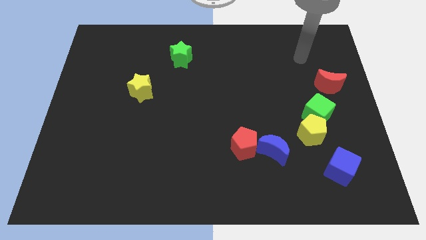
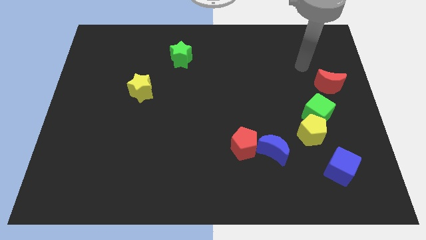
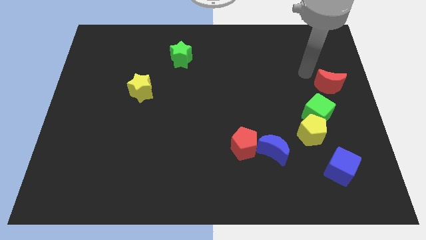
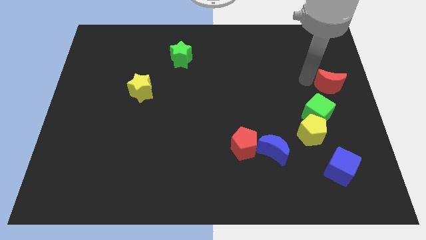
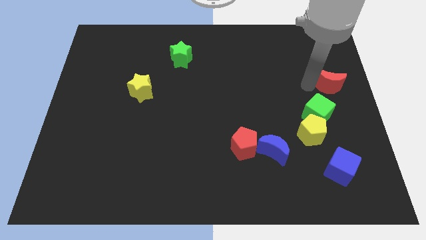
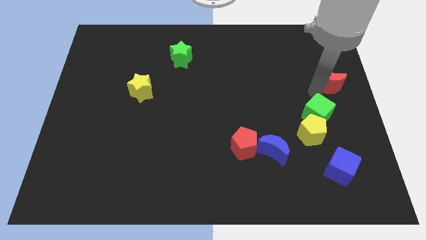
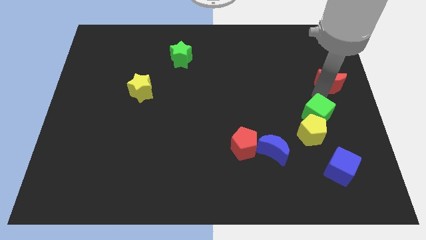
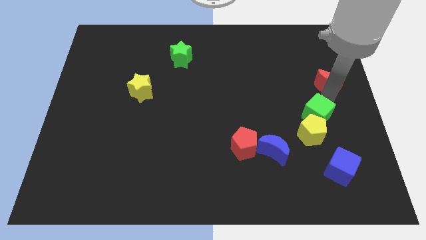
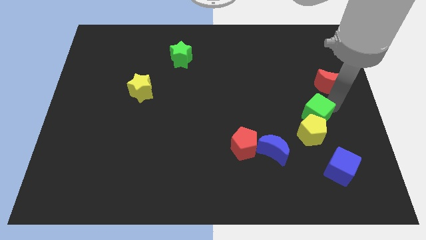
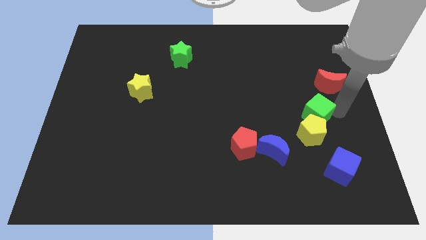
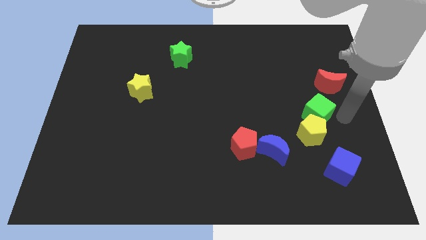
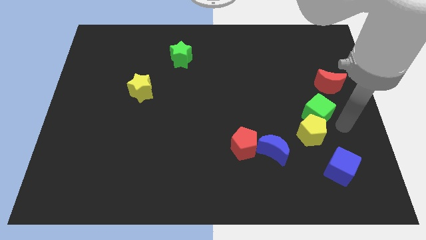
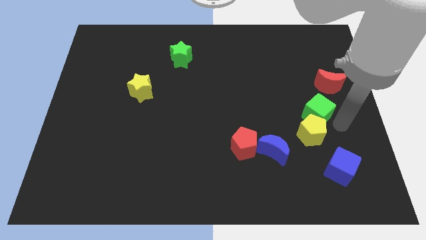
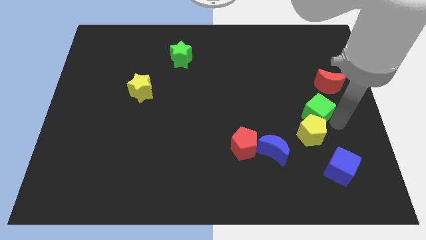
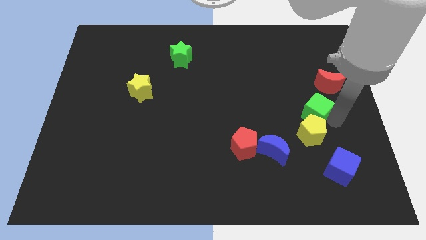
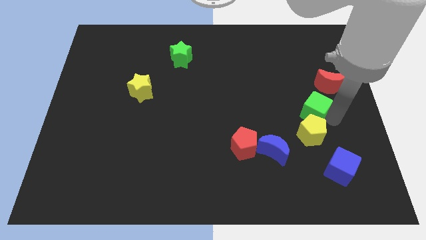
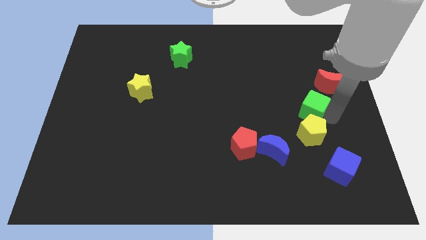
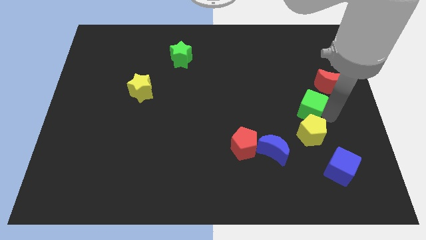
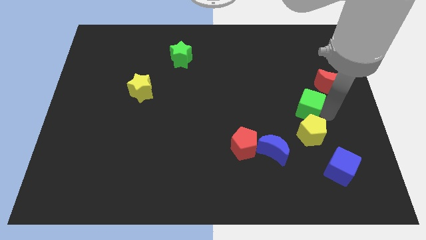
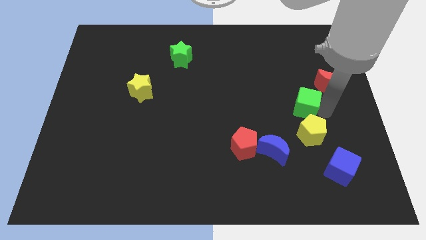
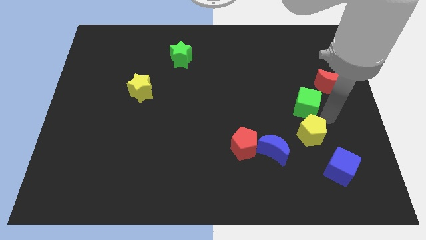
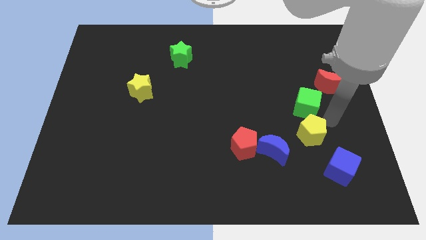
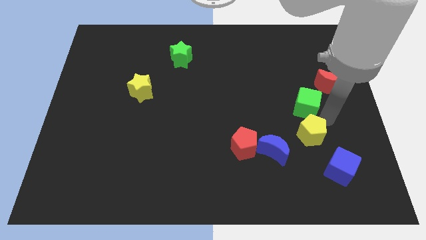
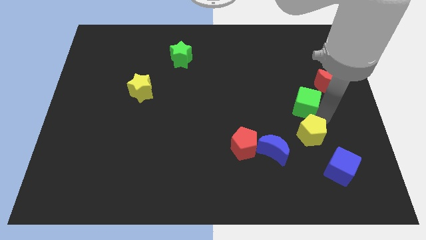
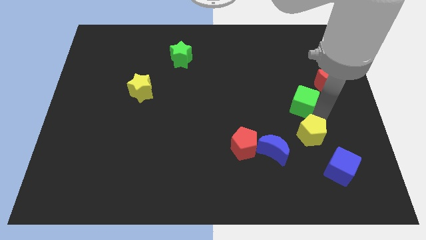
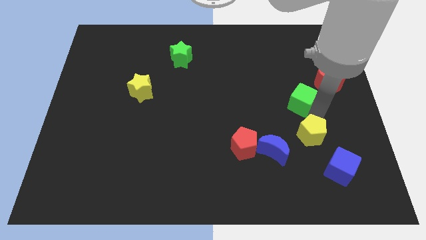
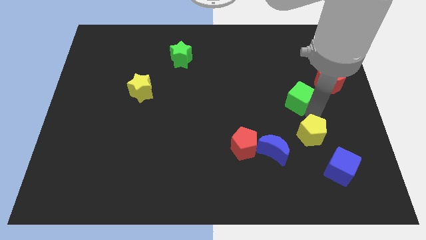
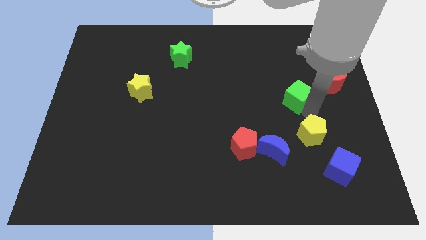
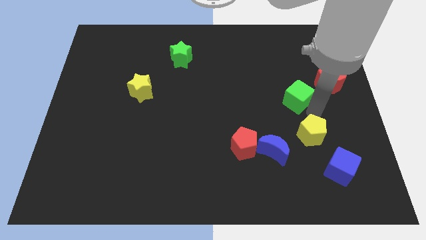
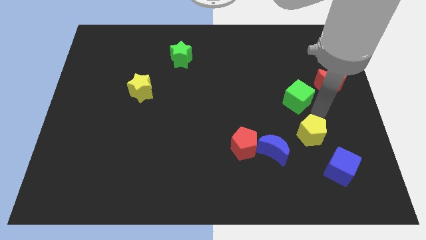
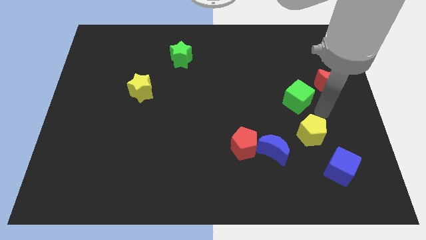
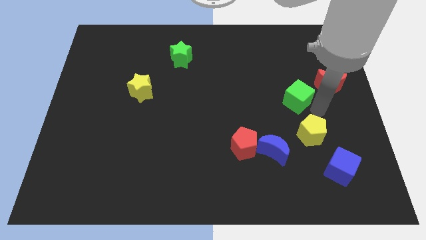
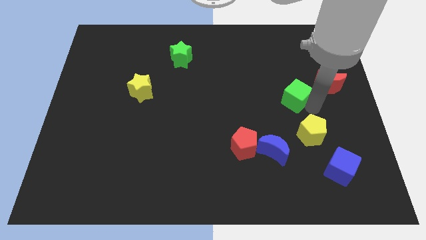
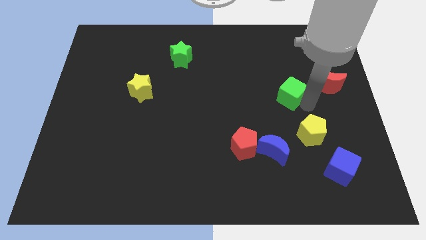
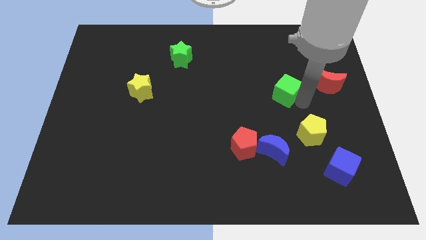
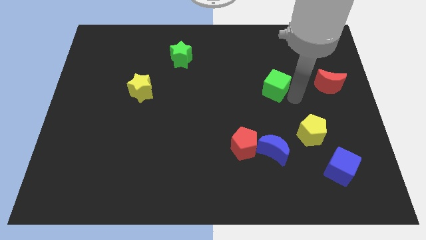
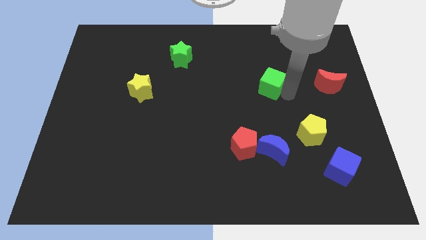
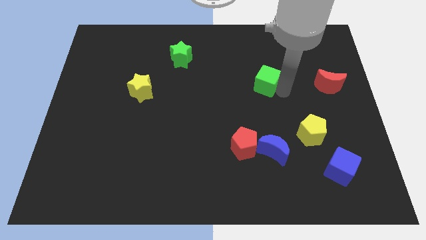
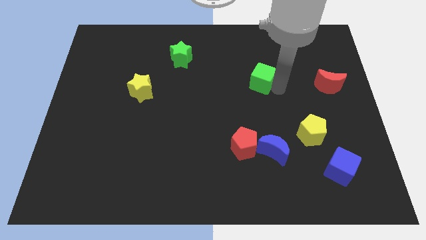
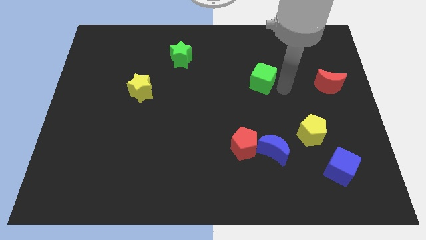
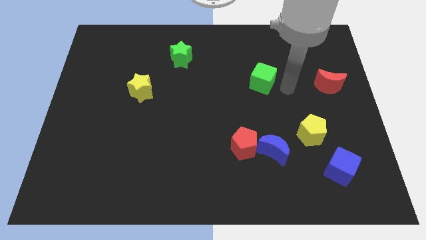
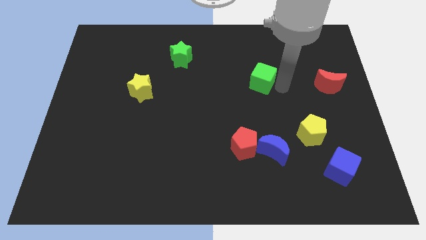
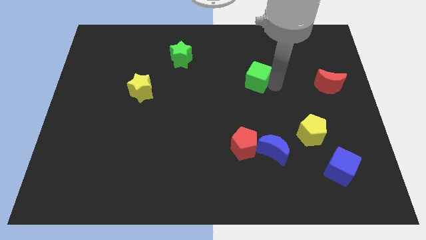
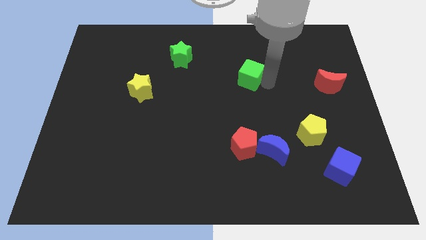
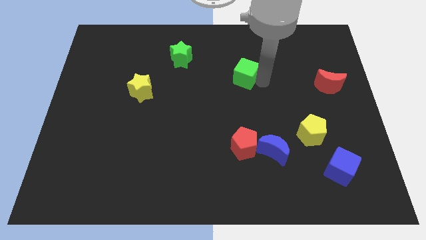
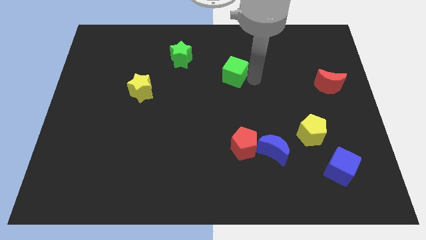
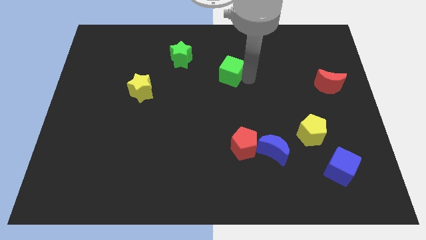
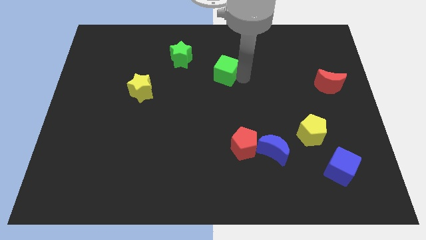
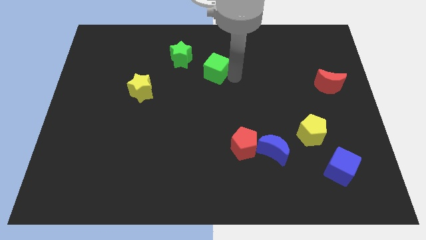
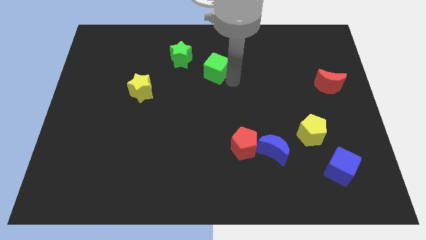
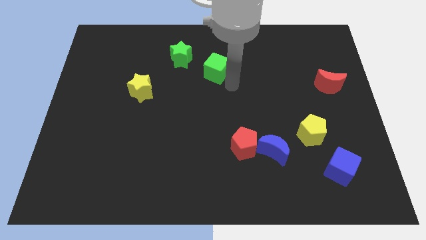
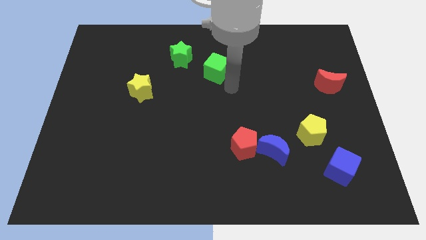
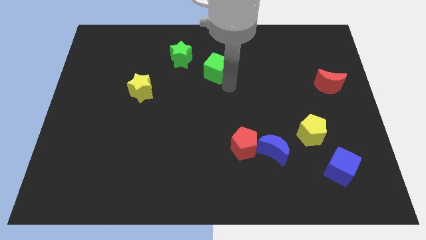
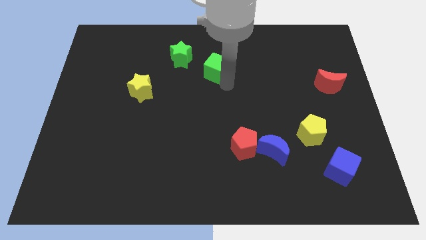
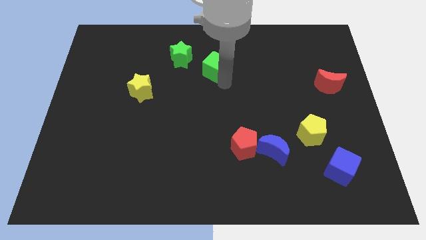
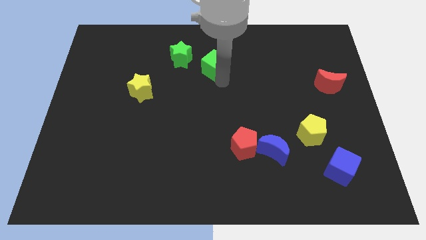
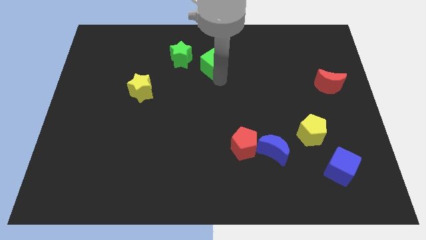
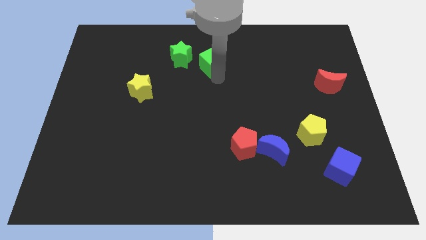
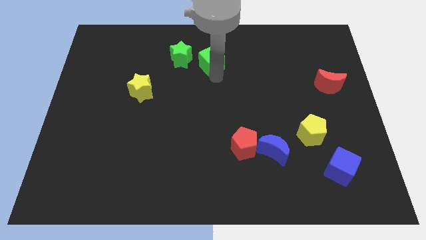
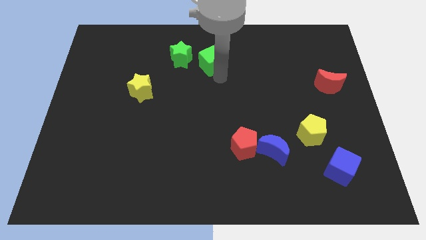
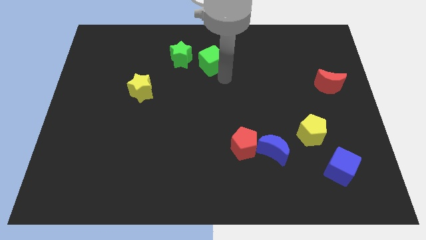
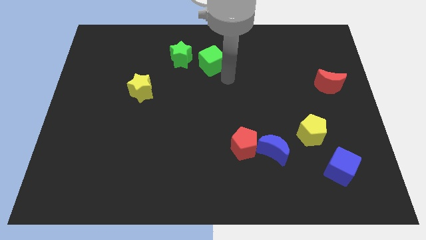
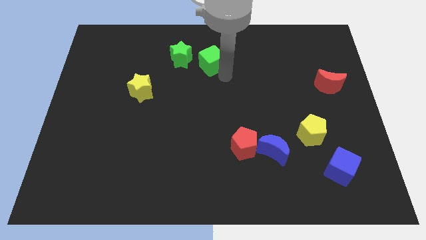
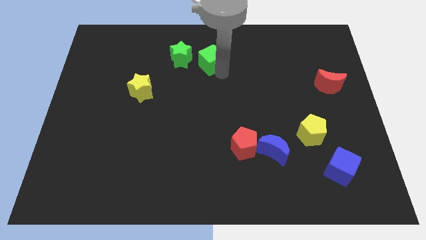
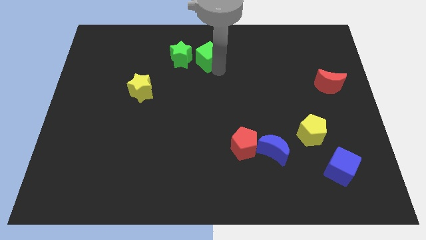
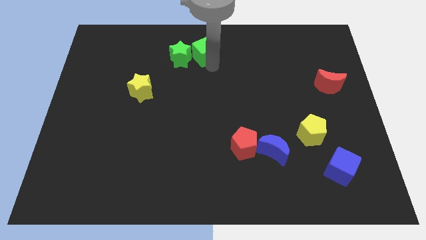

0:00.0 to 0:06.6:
slide the green cube to the towards your base

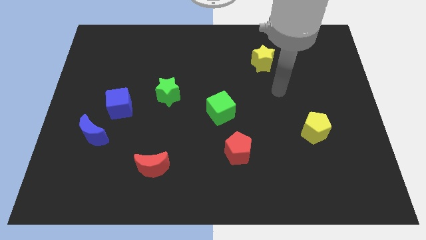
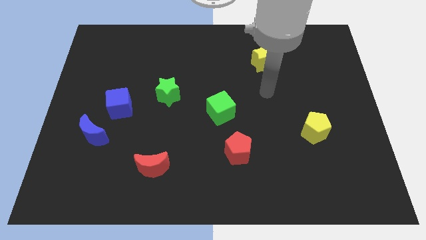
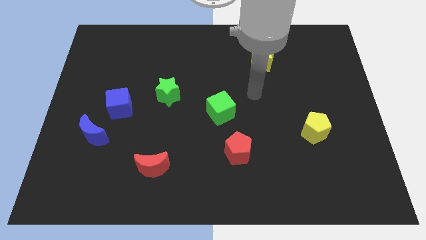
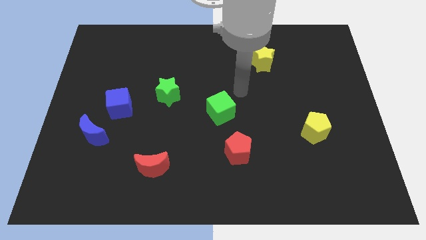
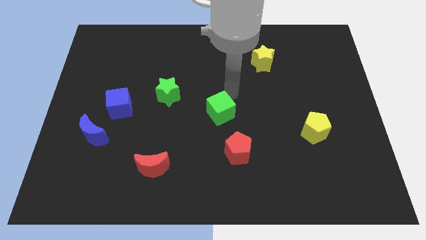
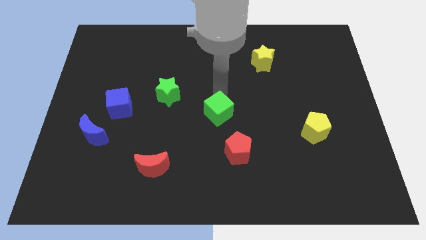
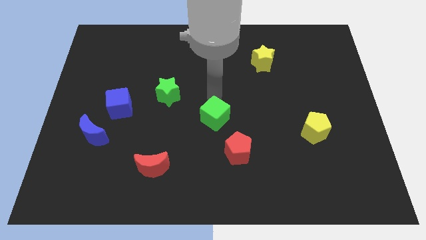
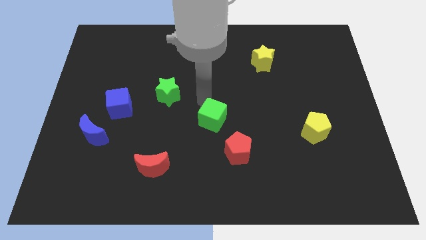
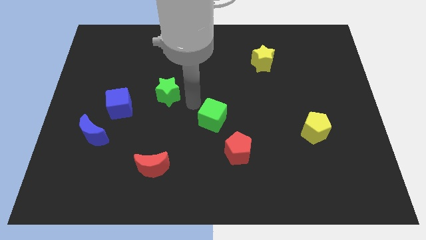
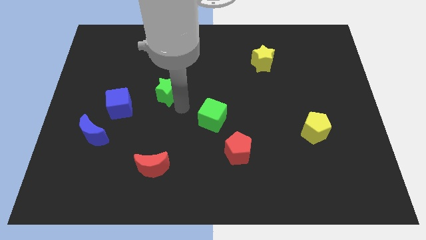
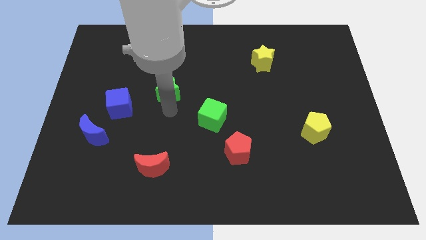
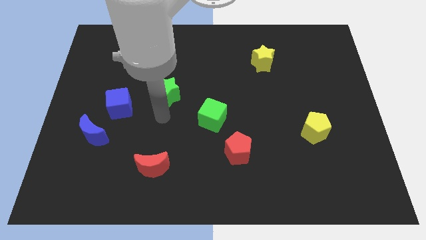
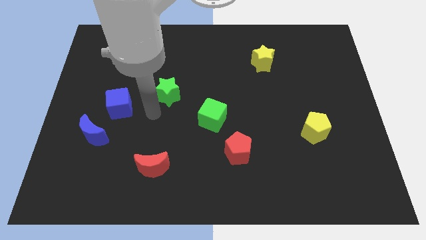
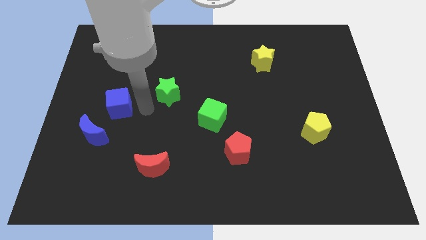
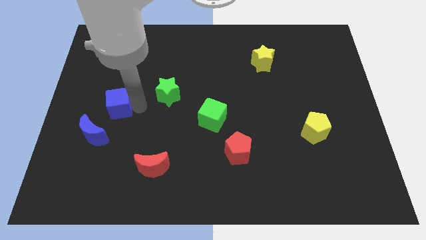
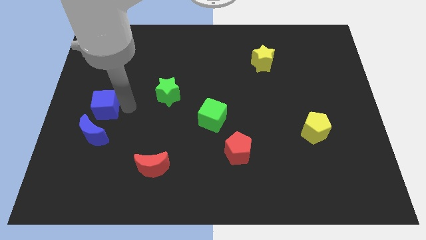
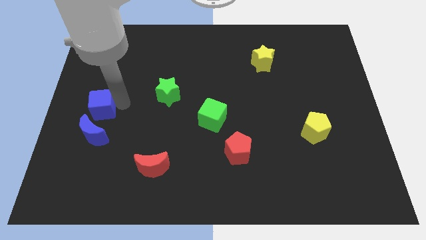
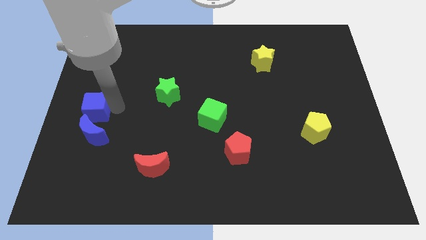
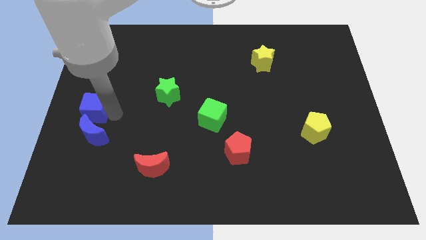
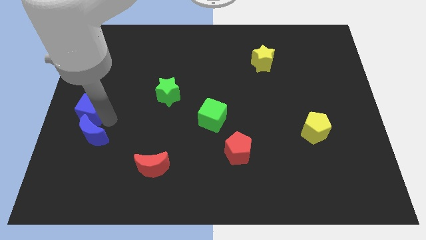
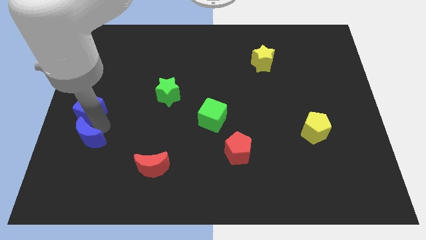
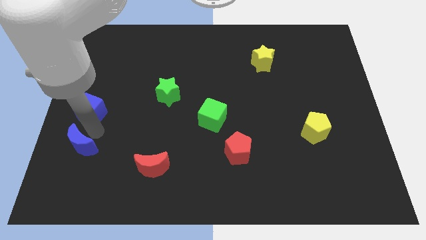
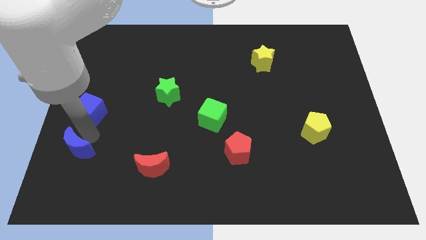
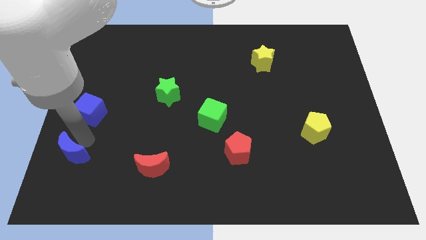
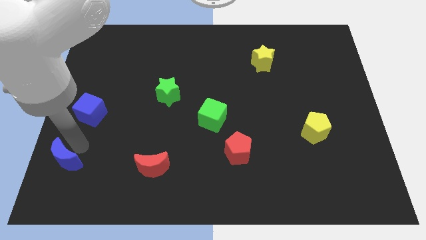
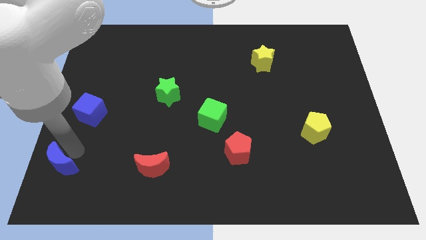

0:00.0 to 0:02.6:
slide the blue moon to the bottom left
